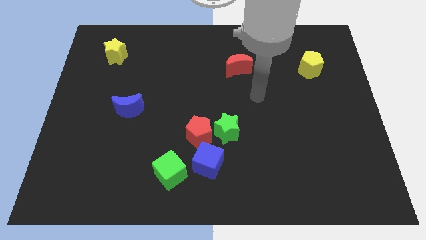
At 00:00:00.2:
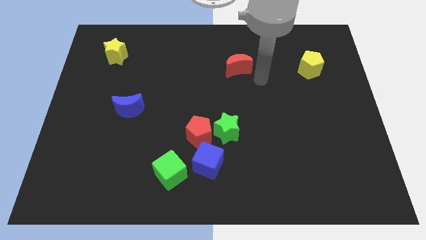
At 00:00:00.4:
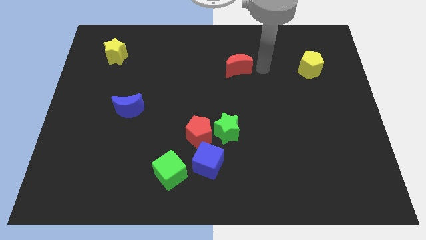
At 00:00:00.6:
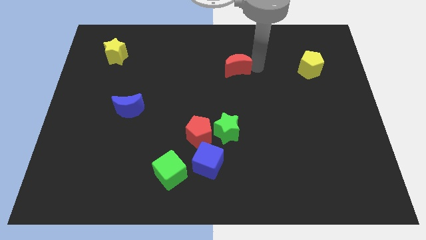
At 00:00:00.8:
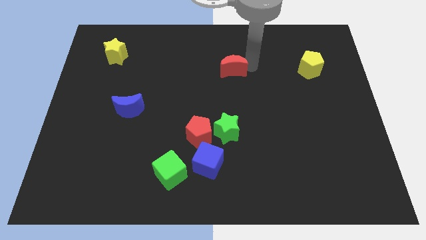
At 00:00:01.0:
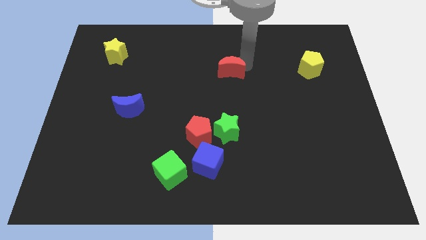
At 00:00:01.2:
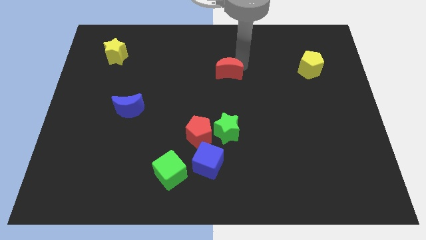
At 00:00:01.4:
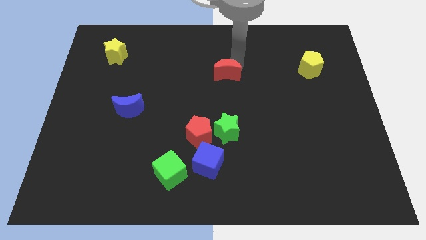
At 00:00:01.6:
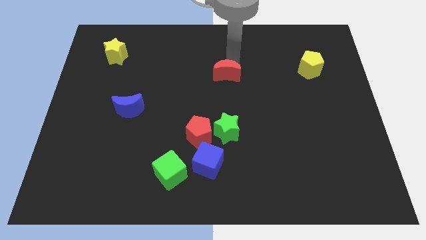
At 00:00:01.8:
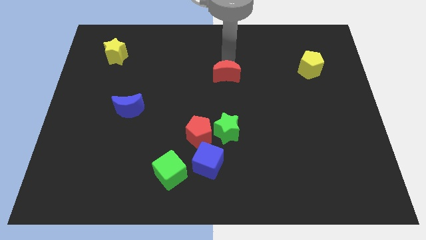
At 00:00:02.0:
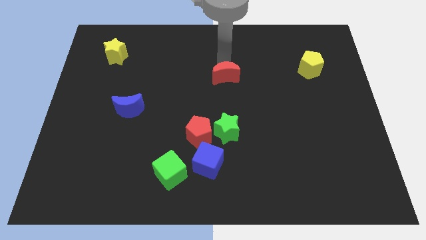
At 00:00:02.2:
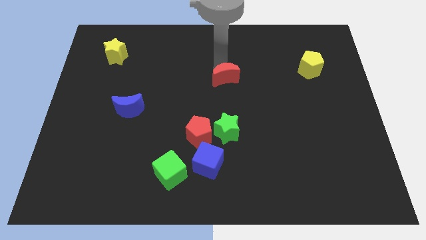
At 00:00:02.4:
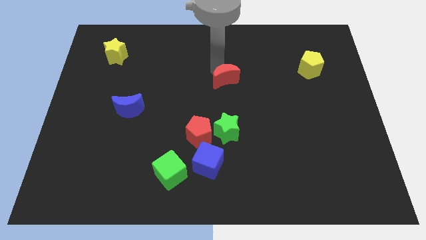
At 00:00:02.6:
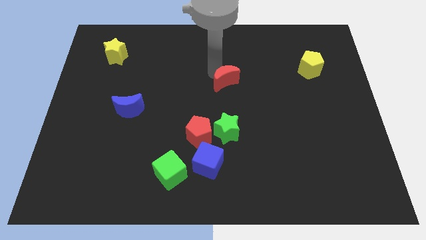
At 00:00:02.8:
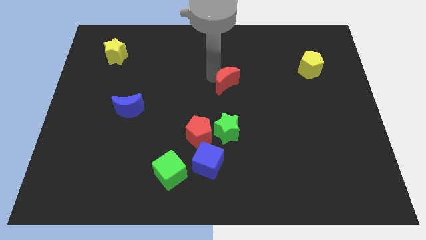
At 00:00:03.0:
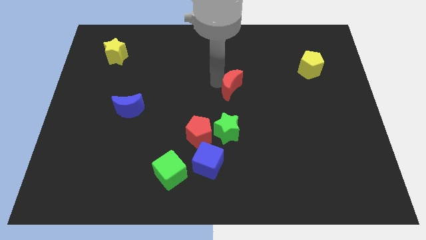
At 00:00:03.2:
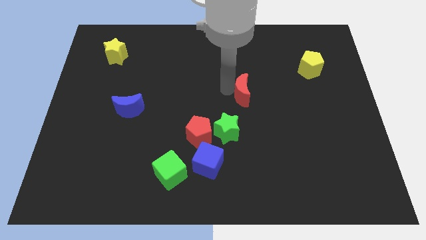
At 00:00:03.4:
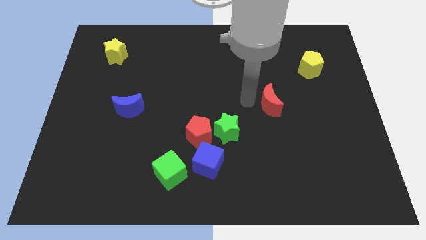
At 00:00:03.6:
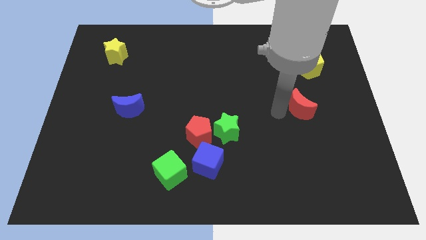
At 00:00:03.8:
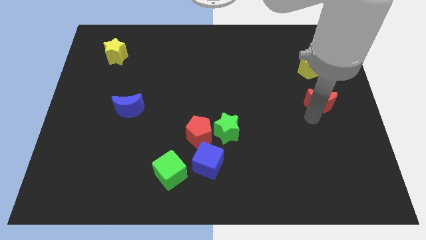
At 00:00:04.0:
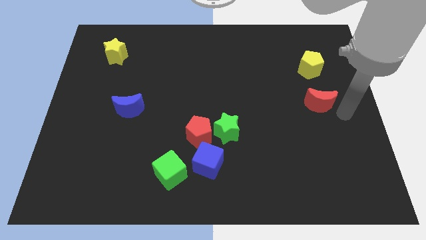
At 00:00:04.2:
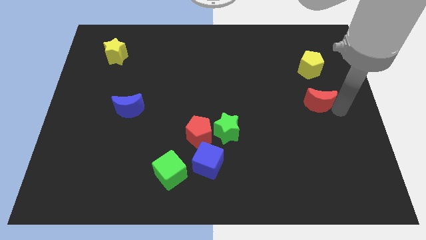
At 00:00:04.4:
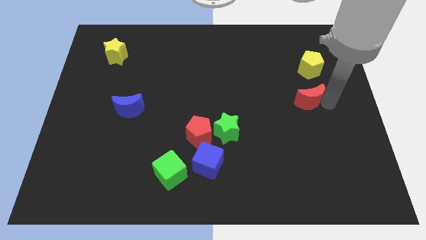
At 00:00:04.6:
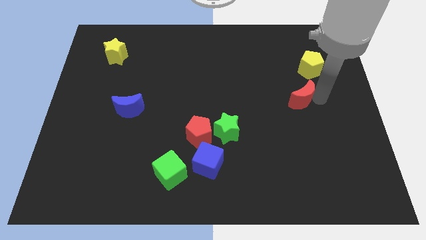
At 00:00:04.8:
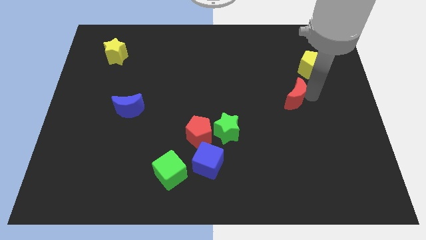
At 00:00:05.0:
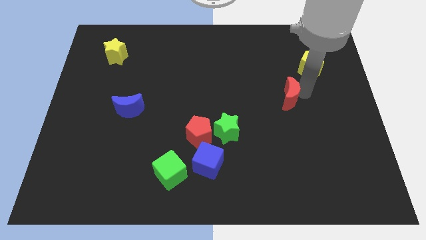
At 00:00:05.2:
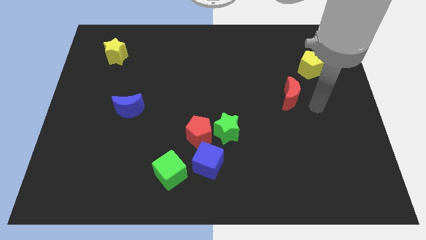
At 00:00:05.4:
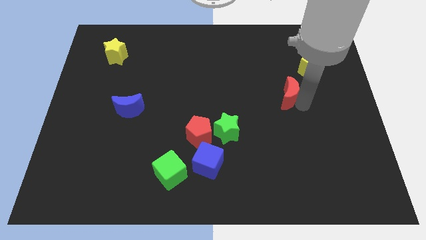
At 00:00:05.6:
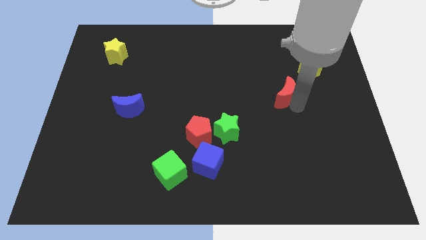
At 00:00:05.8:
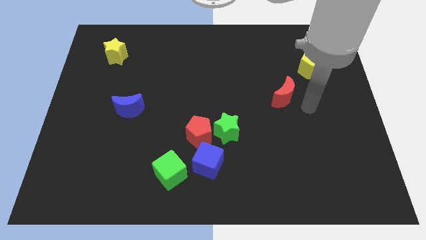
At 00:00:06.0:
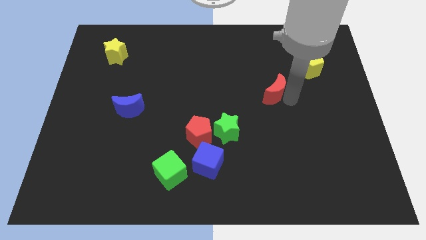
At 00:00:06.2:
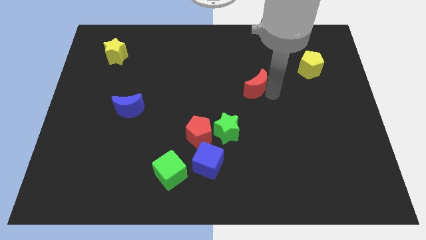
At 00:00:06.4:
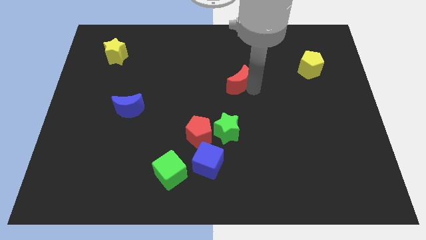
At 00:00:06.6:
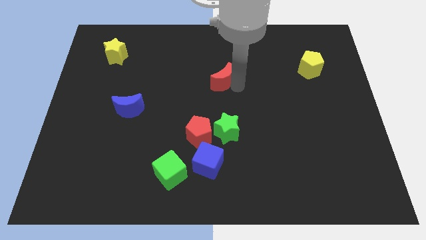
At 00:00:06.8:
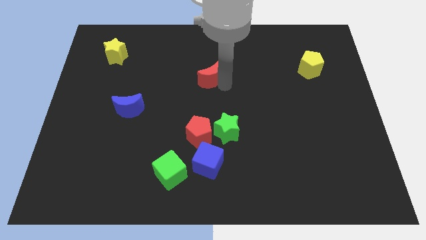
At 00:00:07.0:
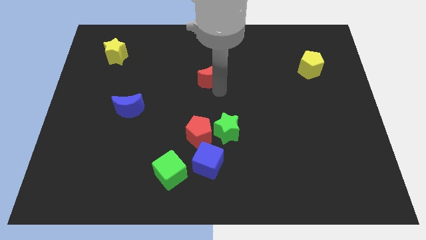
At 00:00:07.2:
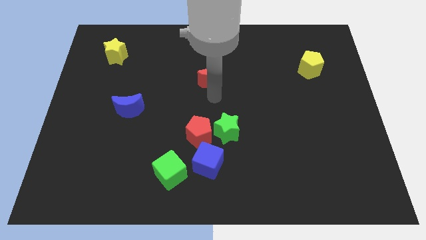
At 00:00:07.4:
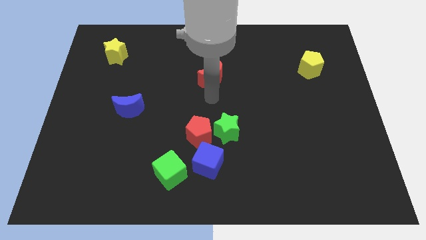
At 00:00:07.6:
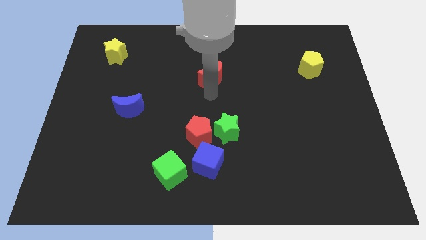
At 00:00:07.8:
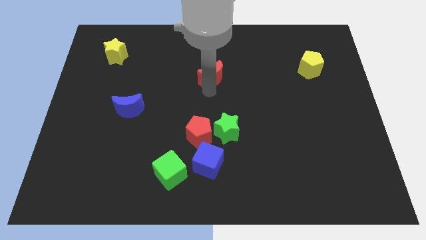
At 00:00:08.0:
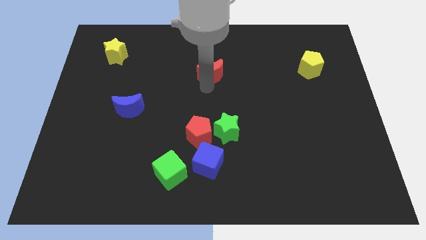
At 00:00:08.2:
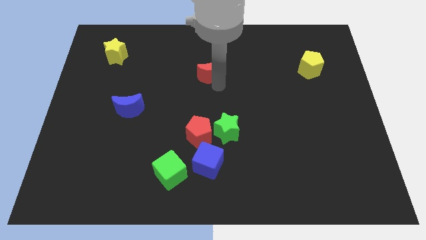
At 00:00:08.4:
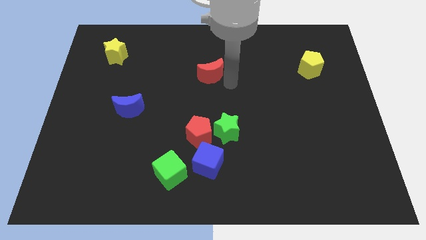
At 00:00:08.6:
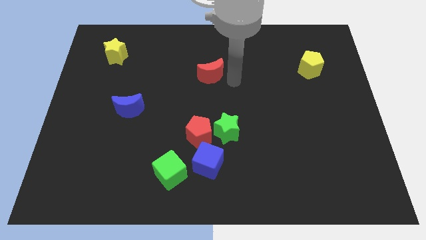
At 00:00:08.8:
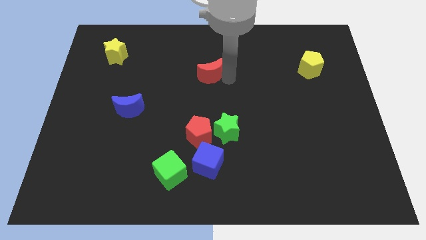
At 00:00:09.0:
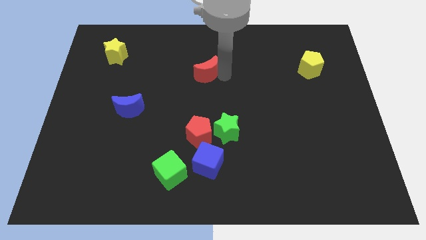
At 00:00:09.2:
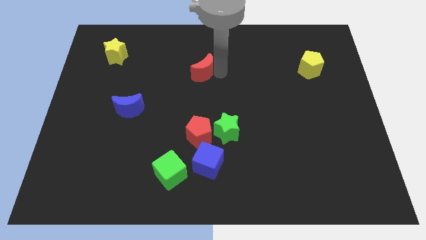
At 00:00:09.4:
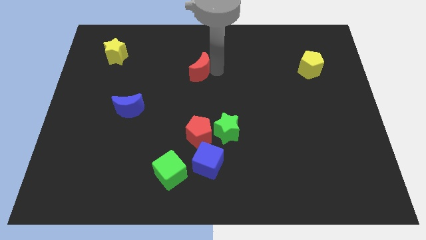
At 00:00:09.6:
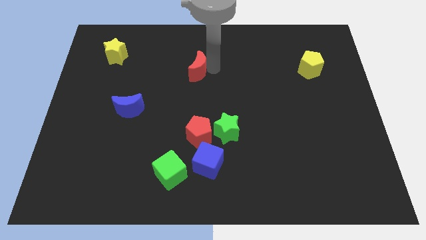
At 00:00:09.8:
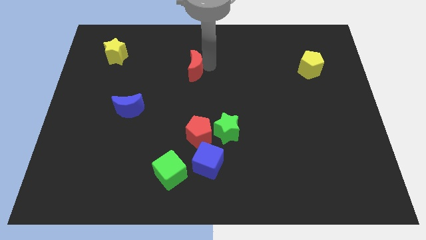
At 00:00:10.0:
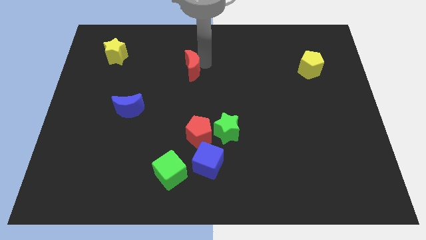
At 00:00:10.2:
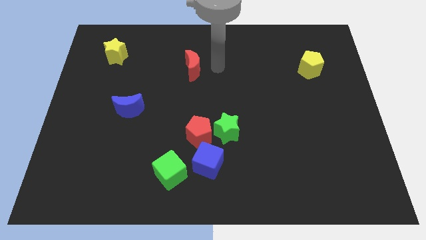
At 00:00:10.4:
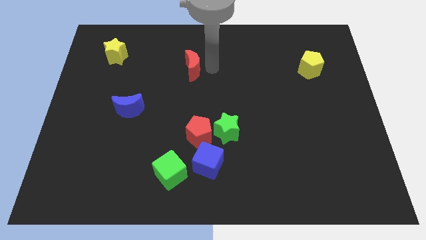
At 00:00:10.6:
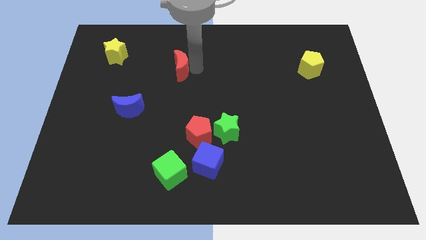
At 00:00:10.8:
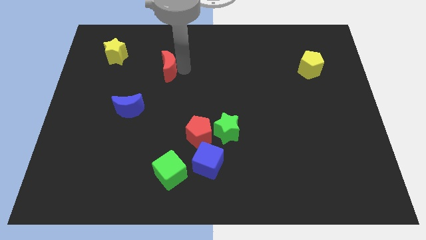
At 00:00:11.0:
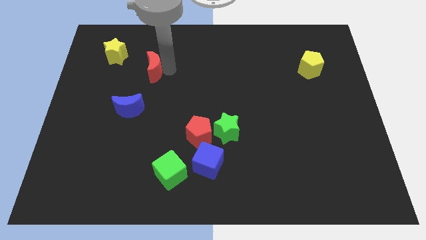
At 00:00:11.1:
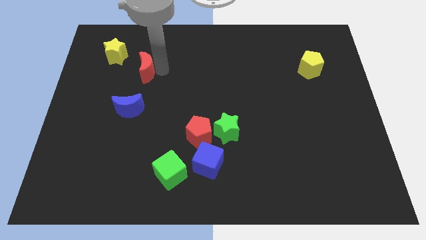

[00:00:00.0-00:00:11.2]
slide the red moon to the bottom right of the yellow star

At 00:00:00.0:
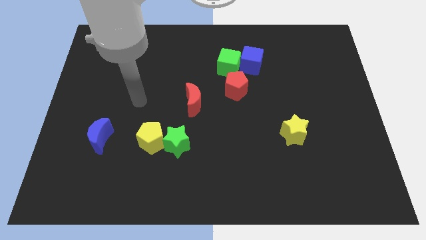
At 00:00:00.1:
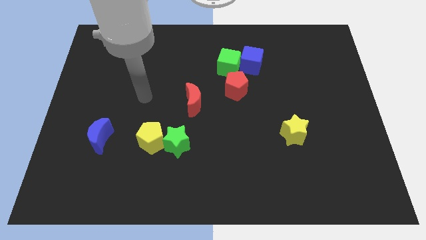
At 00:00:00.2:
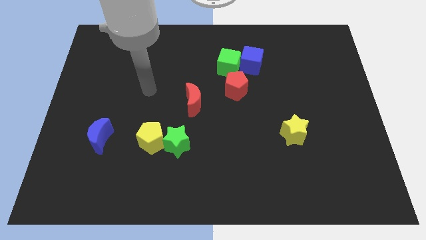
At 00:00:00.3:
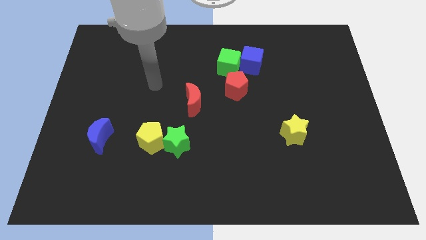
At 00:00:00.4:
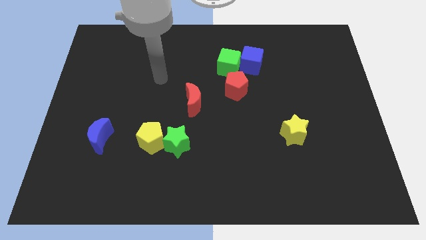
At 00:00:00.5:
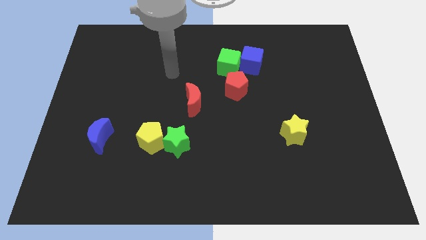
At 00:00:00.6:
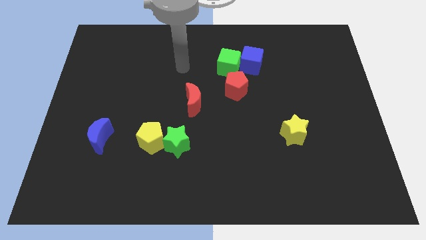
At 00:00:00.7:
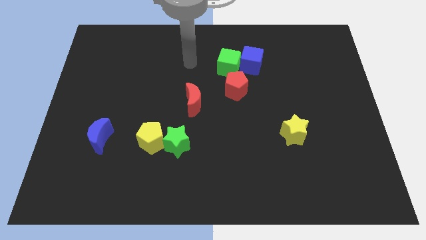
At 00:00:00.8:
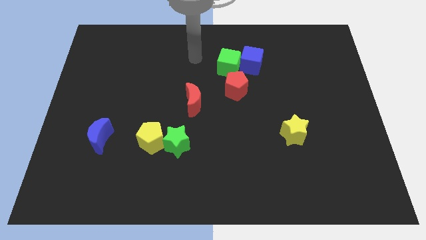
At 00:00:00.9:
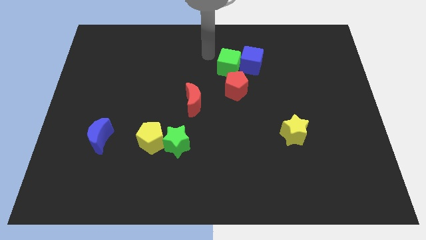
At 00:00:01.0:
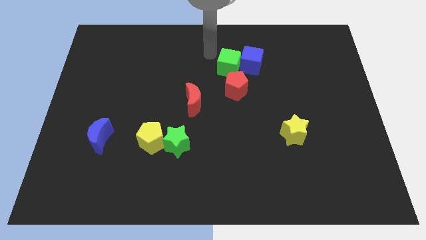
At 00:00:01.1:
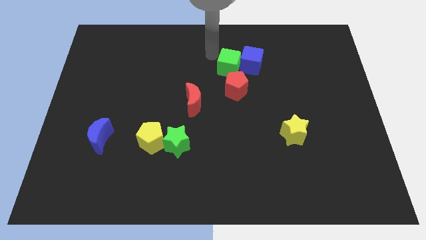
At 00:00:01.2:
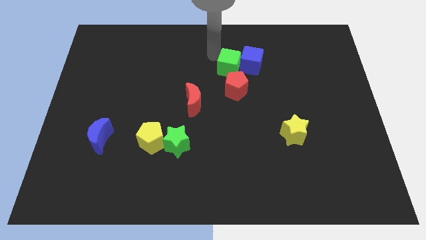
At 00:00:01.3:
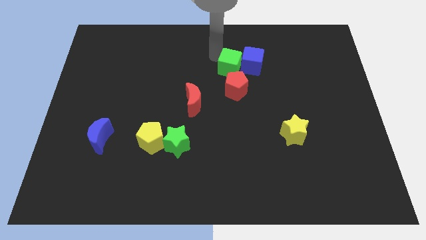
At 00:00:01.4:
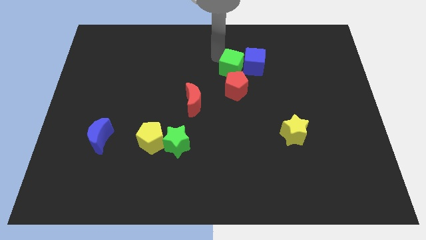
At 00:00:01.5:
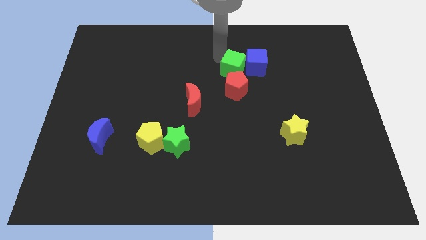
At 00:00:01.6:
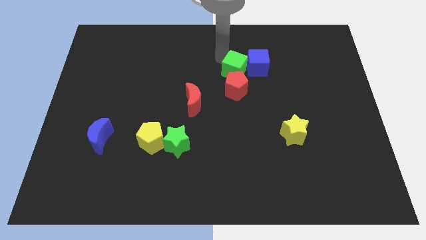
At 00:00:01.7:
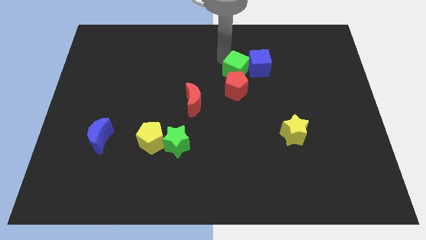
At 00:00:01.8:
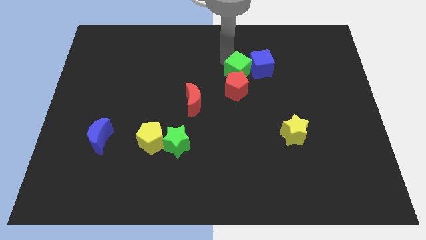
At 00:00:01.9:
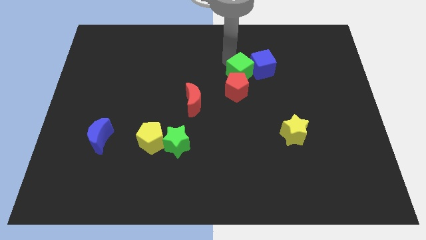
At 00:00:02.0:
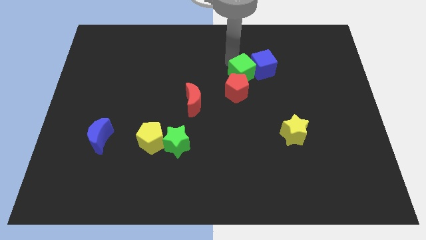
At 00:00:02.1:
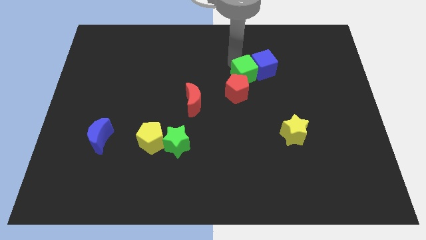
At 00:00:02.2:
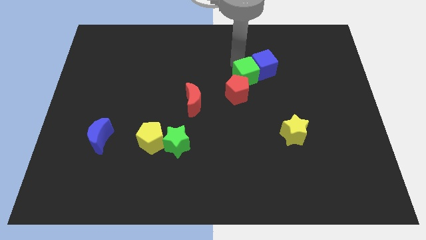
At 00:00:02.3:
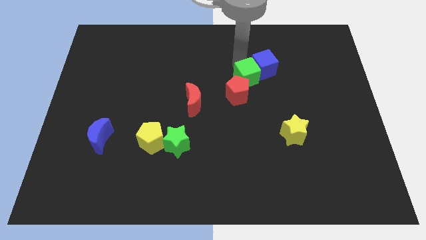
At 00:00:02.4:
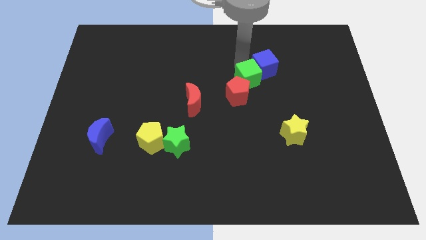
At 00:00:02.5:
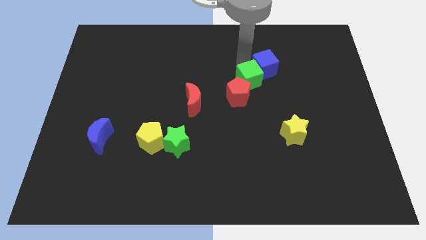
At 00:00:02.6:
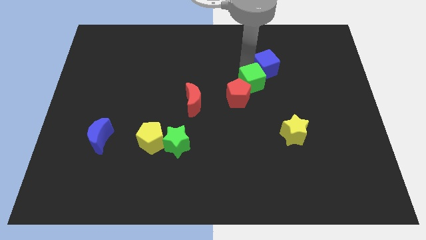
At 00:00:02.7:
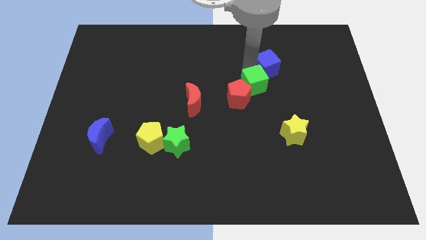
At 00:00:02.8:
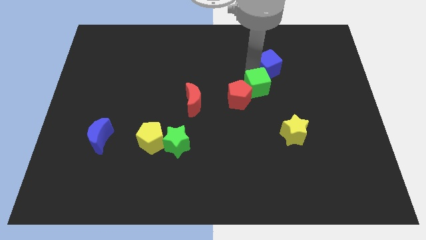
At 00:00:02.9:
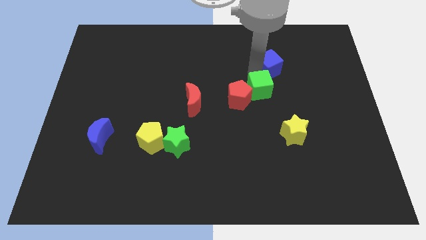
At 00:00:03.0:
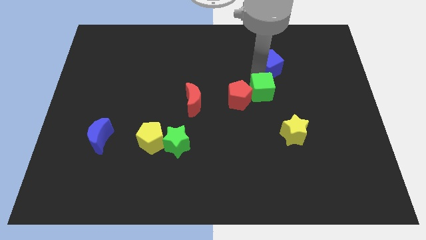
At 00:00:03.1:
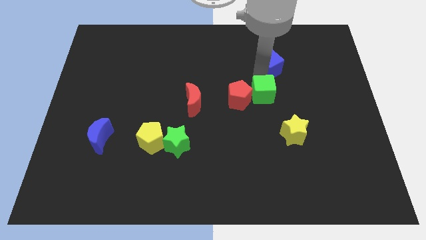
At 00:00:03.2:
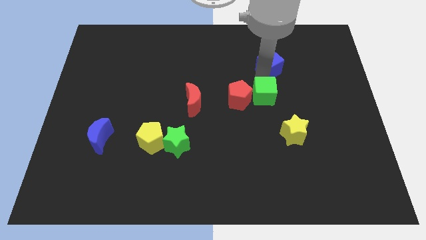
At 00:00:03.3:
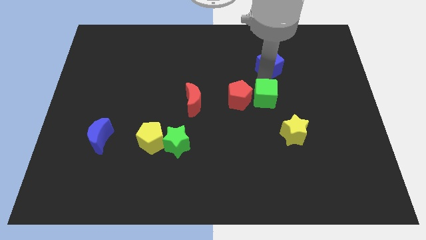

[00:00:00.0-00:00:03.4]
slide the green cube diagonally down and to the right of the red pentagon
